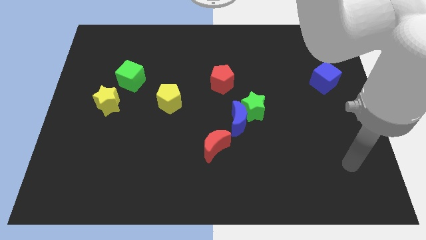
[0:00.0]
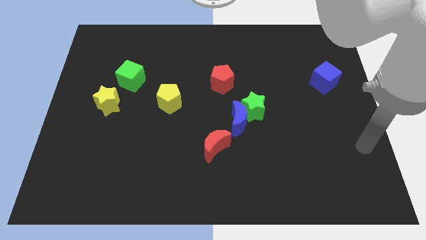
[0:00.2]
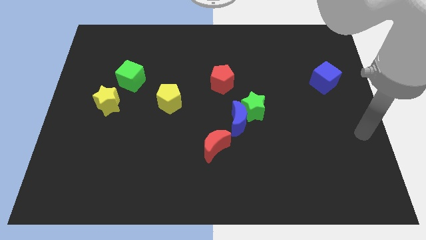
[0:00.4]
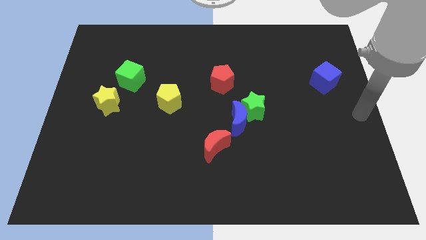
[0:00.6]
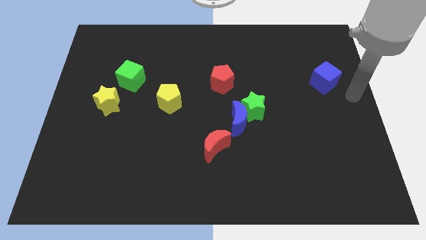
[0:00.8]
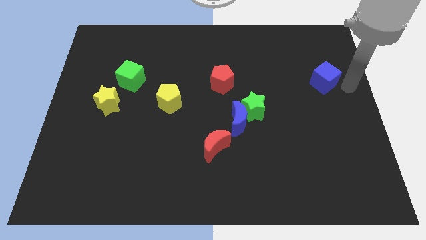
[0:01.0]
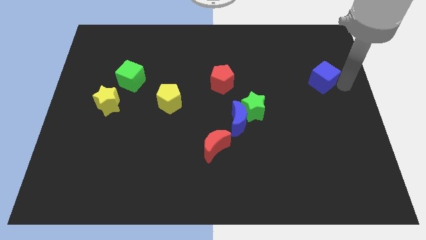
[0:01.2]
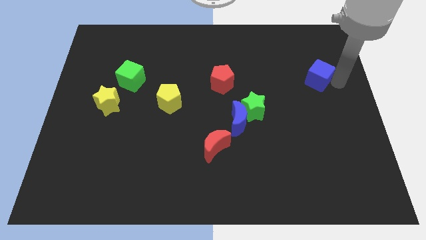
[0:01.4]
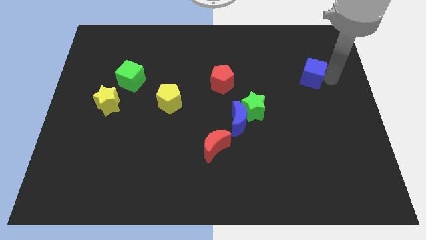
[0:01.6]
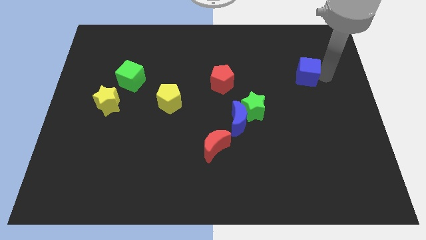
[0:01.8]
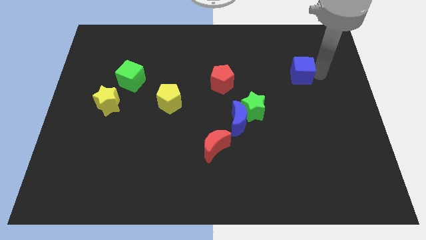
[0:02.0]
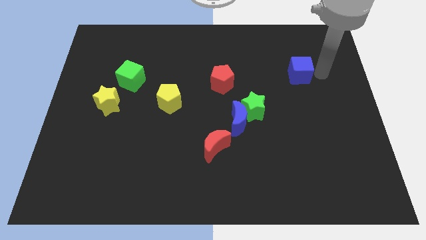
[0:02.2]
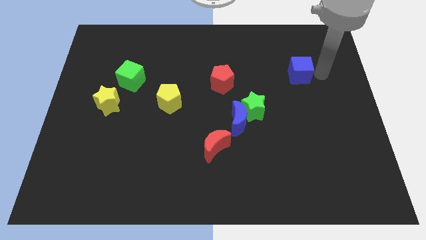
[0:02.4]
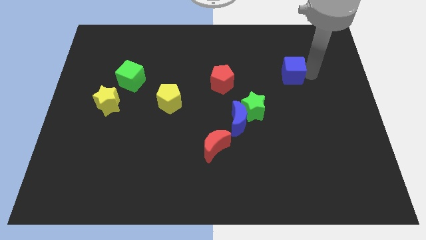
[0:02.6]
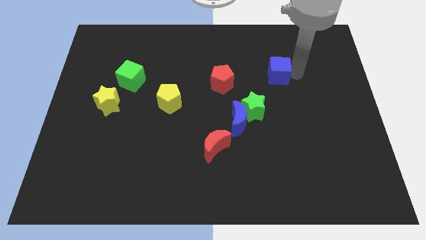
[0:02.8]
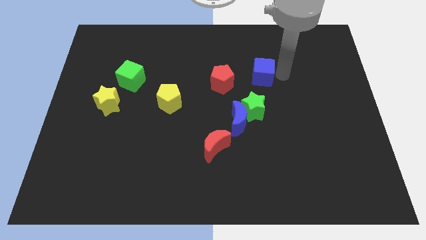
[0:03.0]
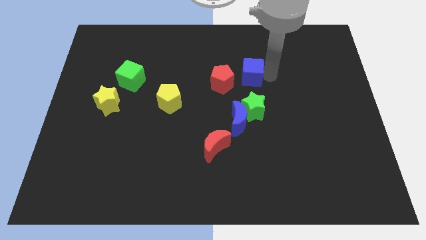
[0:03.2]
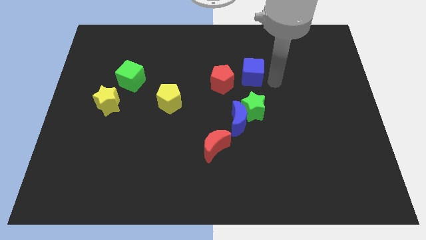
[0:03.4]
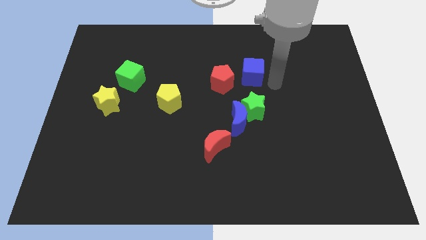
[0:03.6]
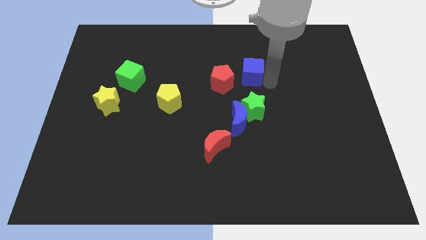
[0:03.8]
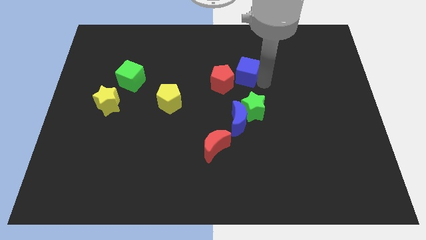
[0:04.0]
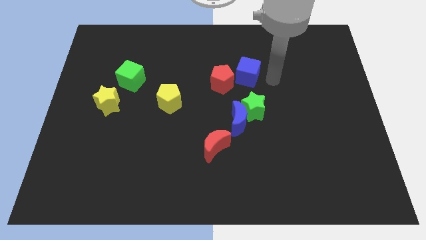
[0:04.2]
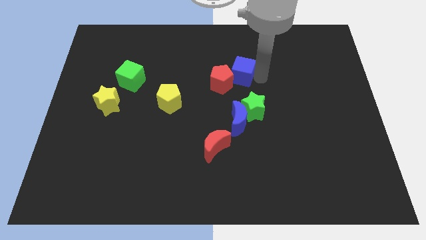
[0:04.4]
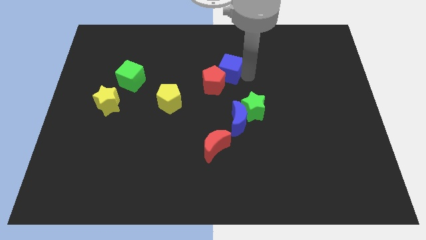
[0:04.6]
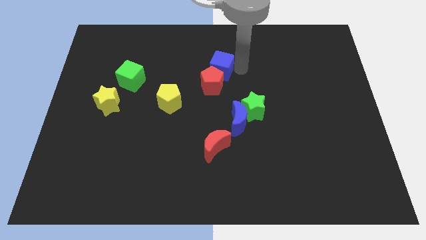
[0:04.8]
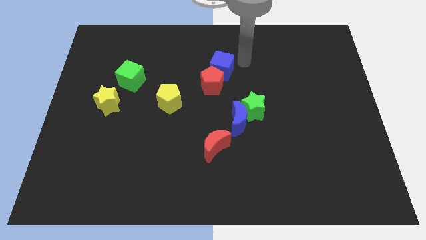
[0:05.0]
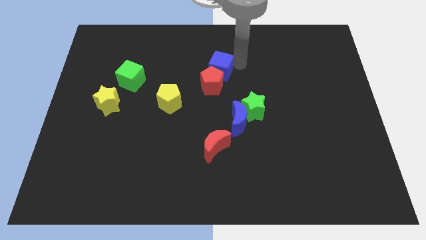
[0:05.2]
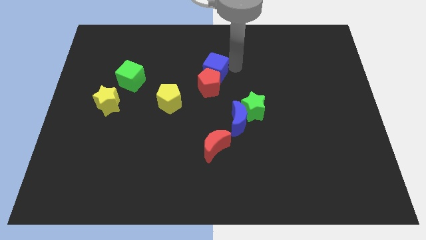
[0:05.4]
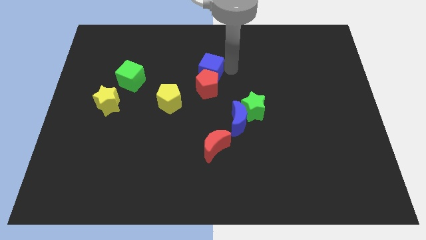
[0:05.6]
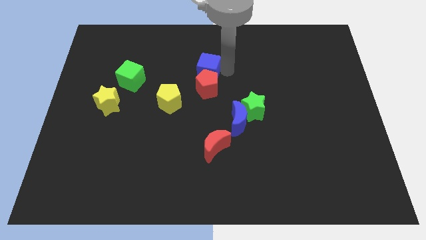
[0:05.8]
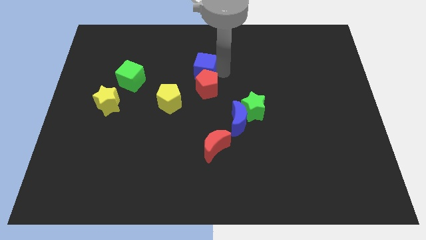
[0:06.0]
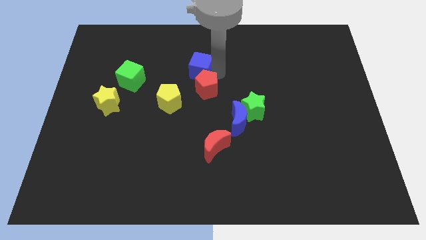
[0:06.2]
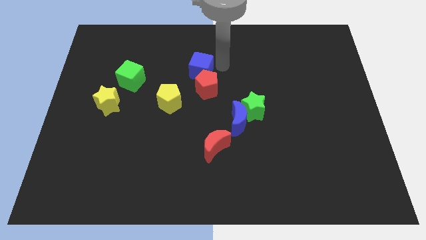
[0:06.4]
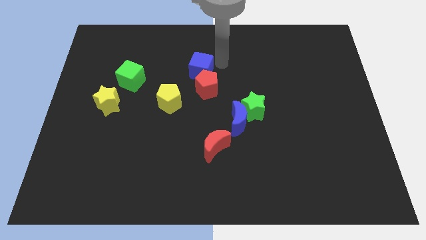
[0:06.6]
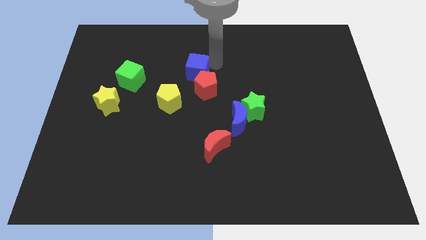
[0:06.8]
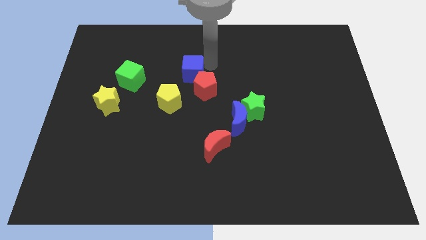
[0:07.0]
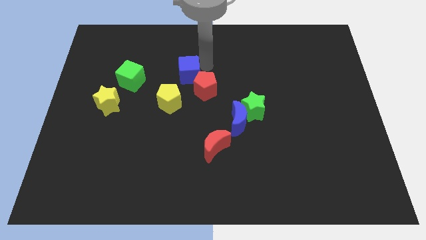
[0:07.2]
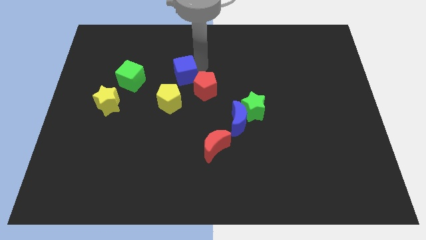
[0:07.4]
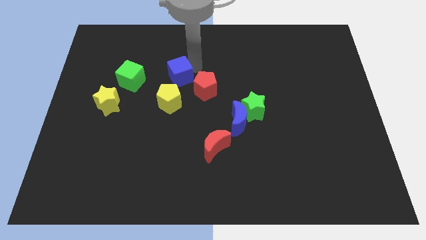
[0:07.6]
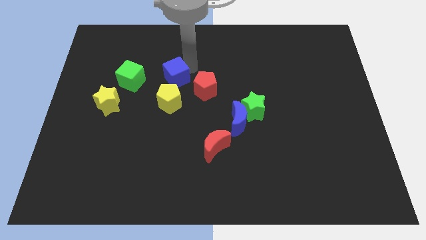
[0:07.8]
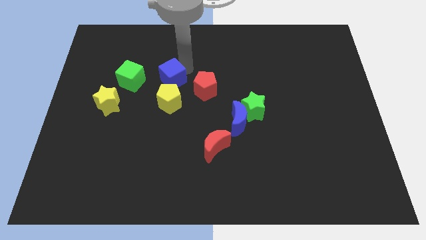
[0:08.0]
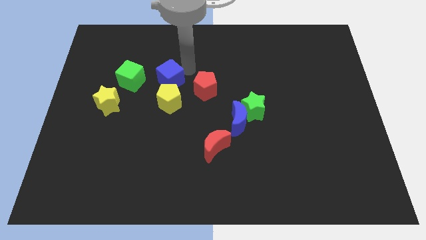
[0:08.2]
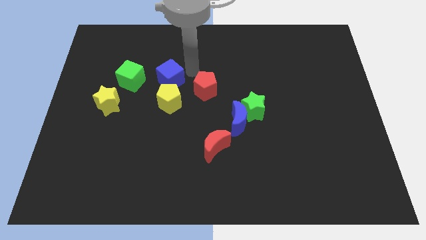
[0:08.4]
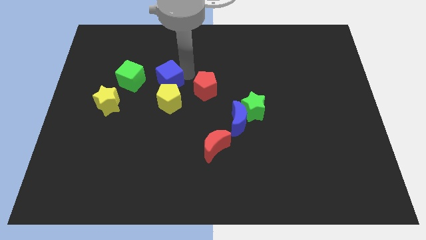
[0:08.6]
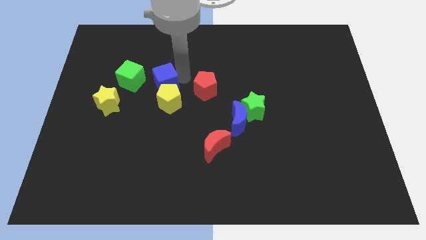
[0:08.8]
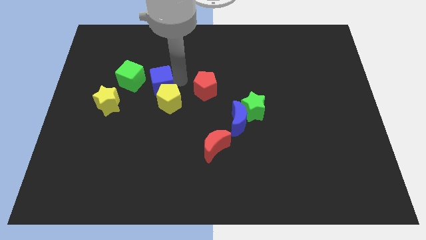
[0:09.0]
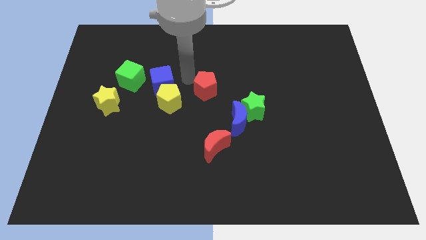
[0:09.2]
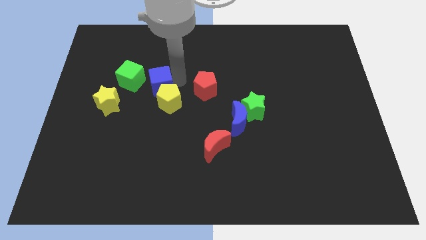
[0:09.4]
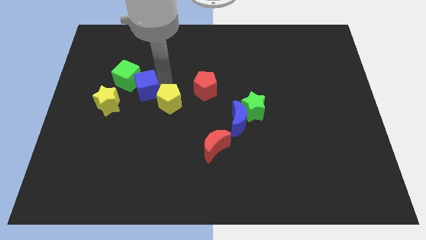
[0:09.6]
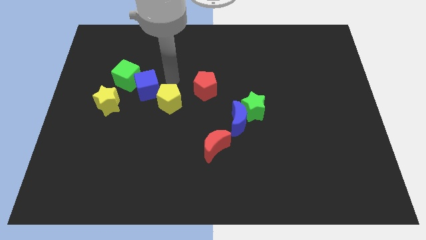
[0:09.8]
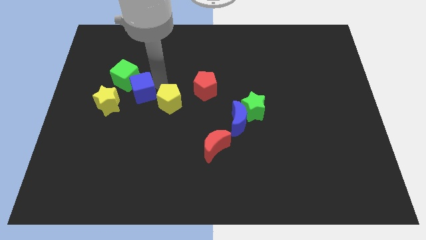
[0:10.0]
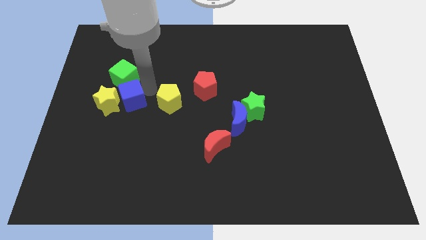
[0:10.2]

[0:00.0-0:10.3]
slide the blue cube close to the yellow star

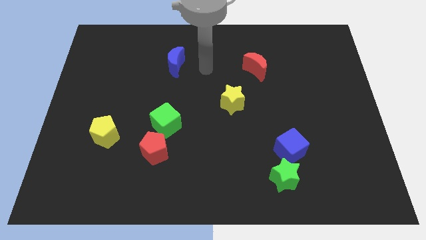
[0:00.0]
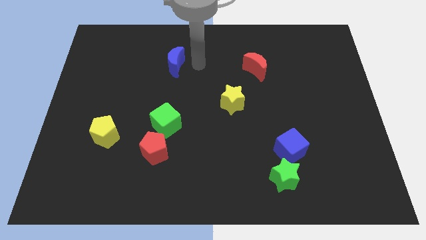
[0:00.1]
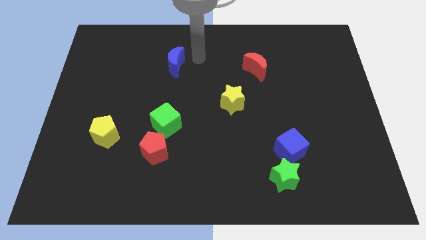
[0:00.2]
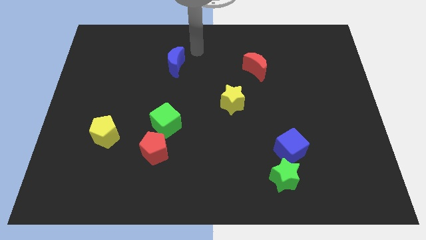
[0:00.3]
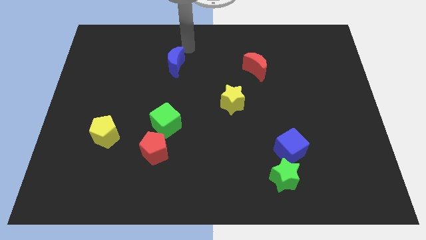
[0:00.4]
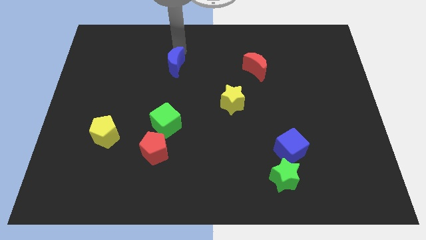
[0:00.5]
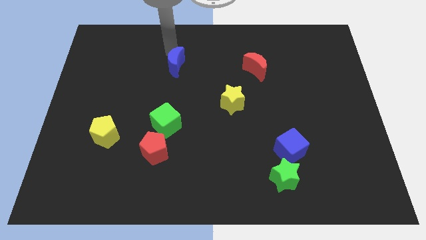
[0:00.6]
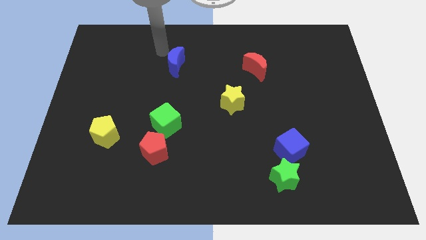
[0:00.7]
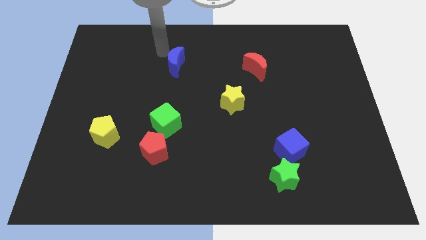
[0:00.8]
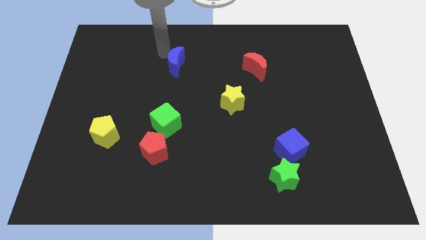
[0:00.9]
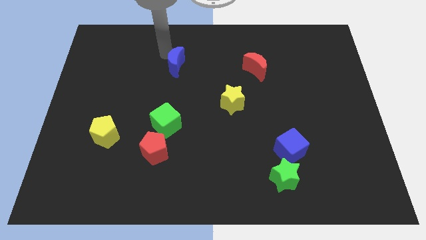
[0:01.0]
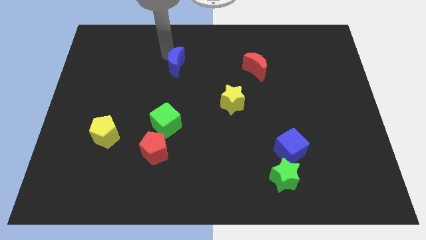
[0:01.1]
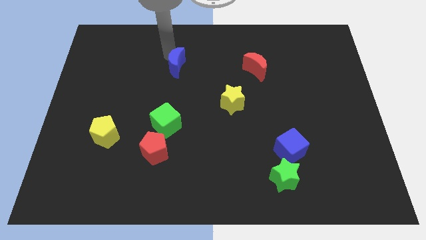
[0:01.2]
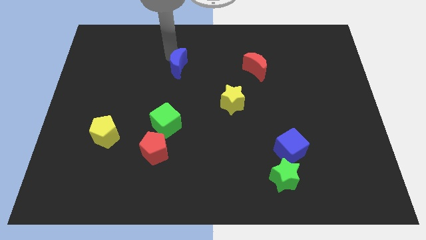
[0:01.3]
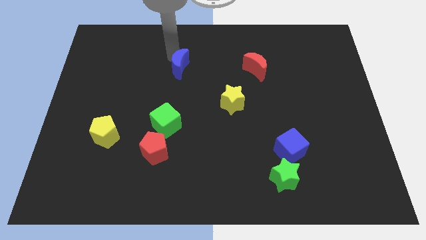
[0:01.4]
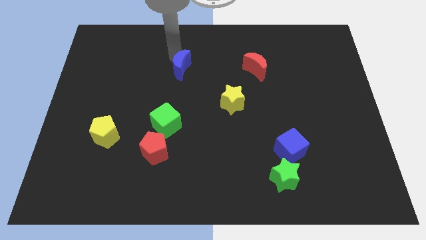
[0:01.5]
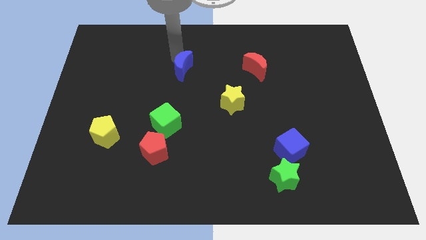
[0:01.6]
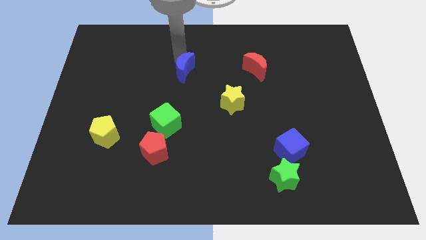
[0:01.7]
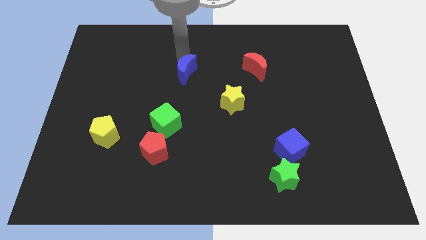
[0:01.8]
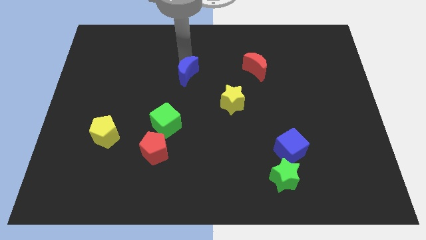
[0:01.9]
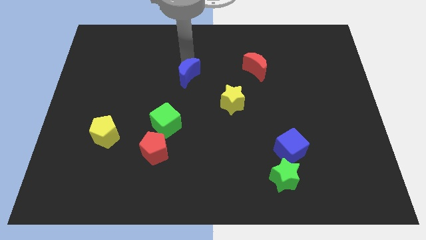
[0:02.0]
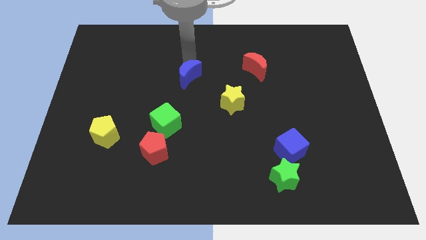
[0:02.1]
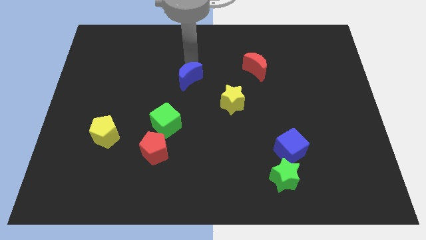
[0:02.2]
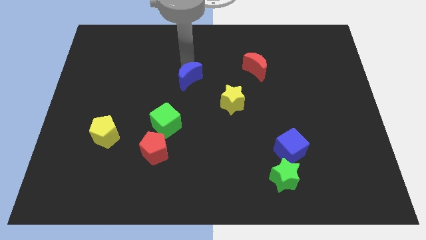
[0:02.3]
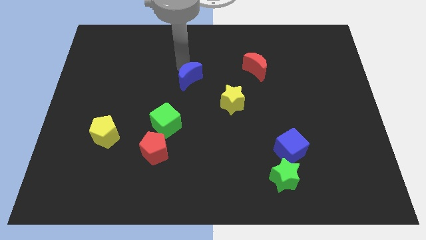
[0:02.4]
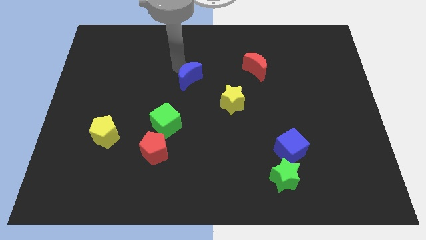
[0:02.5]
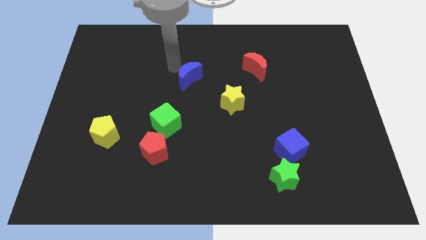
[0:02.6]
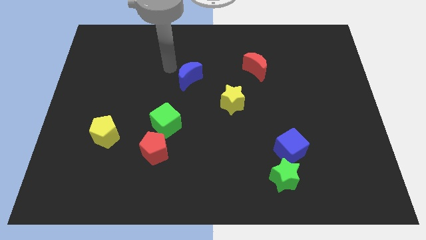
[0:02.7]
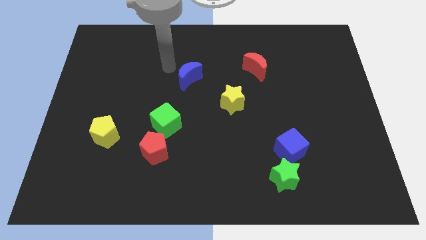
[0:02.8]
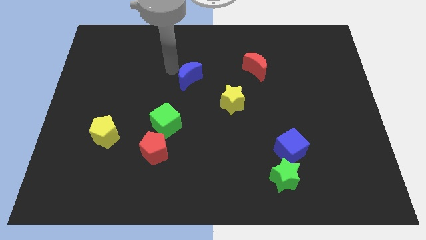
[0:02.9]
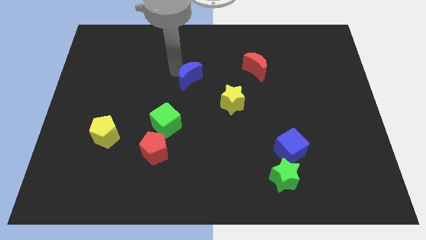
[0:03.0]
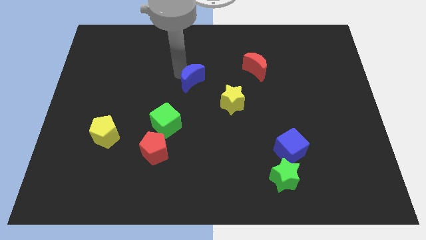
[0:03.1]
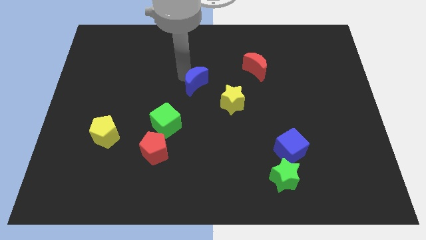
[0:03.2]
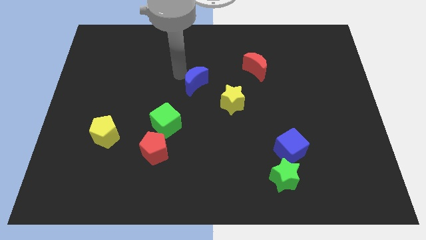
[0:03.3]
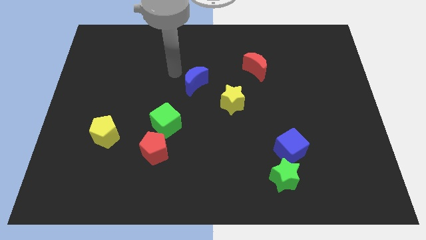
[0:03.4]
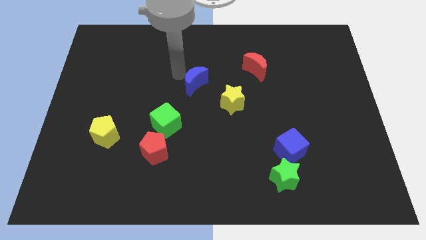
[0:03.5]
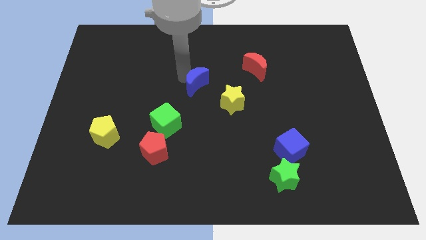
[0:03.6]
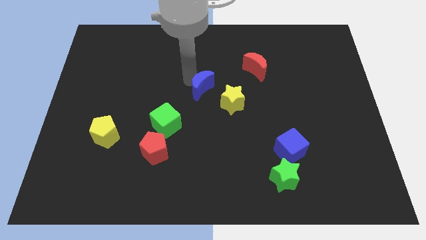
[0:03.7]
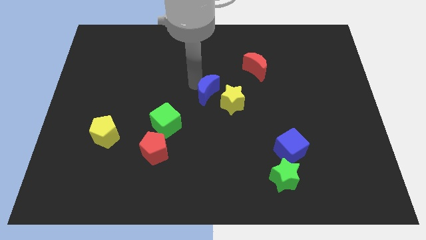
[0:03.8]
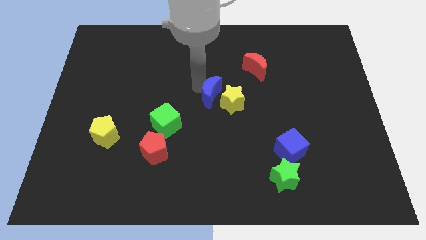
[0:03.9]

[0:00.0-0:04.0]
slide the blue moon to the yellow star
